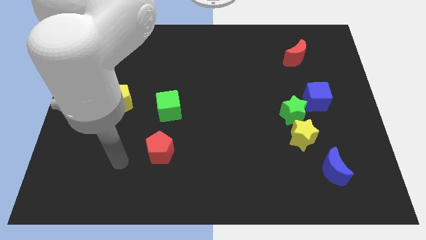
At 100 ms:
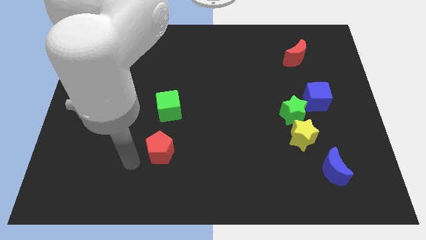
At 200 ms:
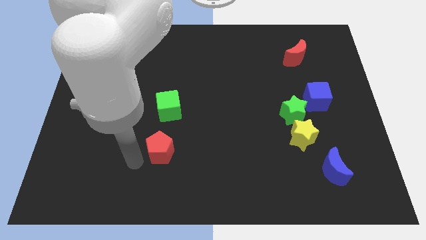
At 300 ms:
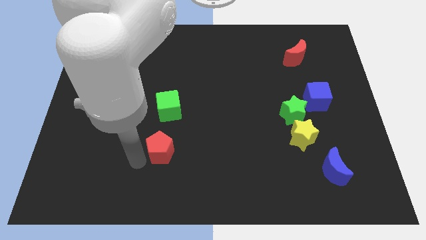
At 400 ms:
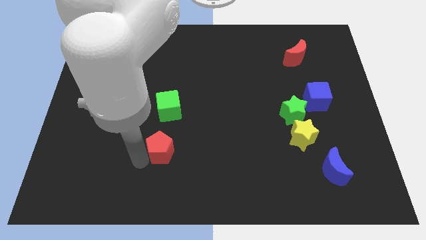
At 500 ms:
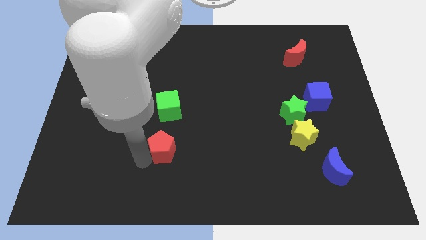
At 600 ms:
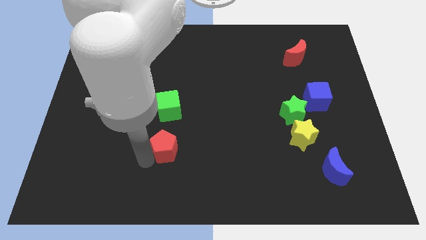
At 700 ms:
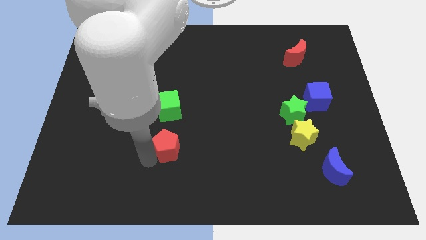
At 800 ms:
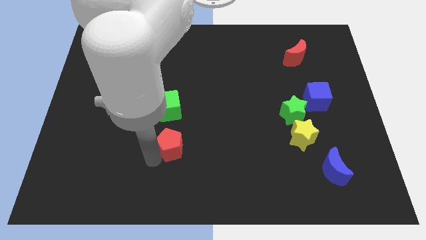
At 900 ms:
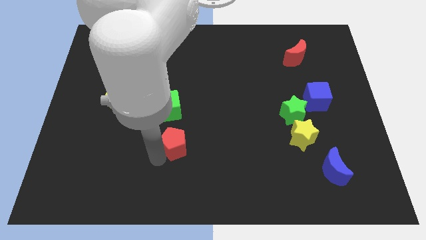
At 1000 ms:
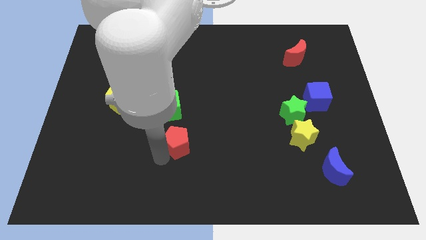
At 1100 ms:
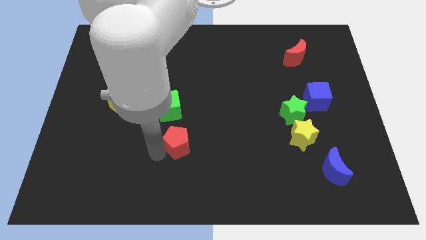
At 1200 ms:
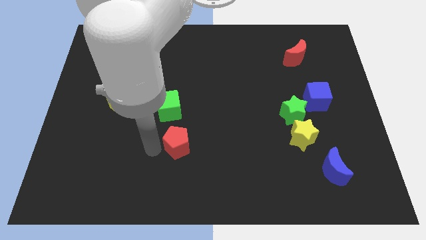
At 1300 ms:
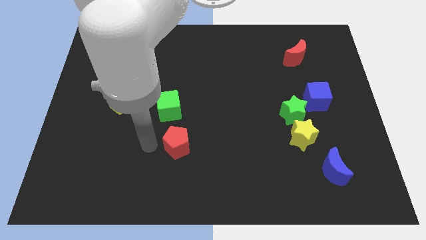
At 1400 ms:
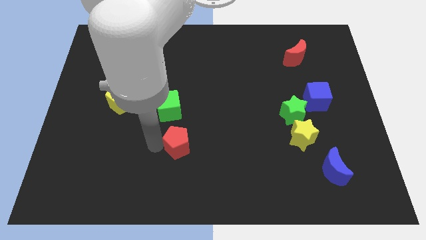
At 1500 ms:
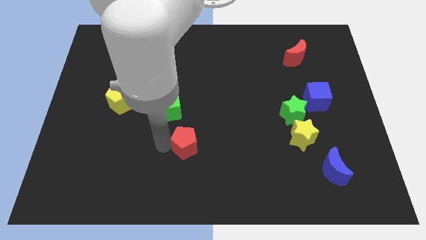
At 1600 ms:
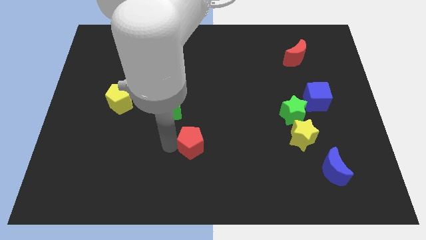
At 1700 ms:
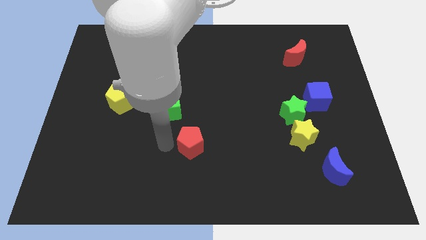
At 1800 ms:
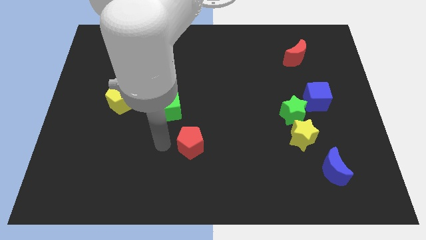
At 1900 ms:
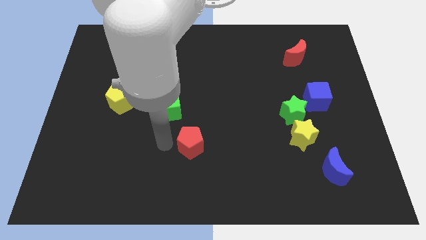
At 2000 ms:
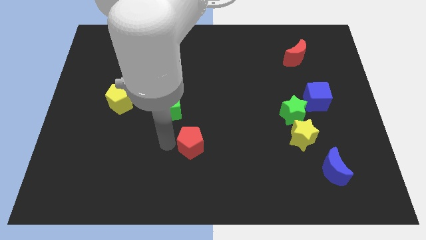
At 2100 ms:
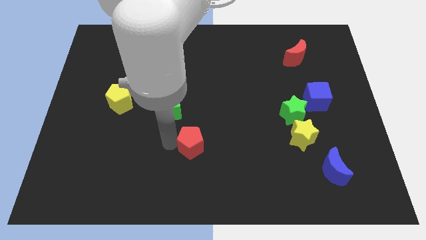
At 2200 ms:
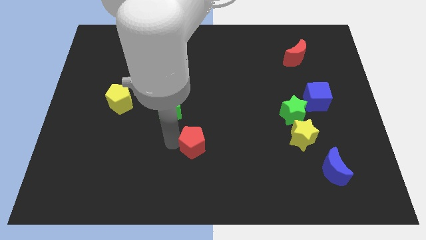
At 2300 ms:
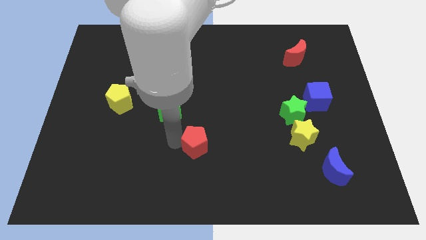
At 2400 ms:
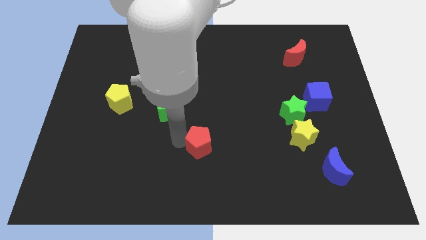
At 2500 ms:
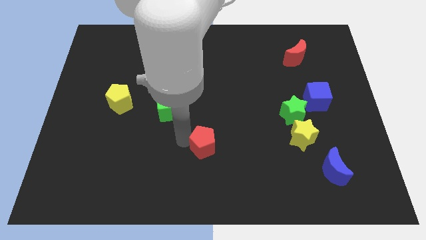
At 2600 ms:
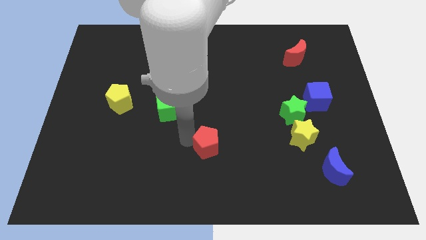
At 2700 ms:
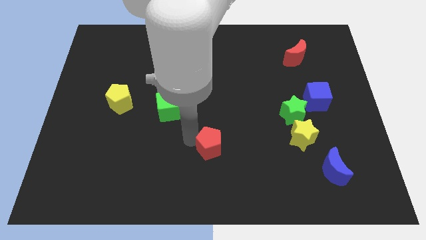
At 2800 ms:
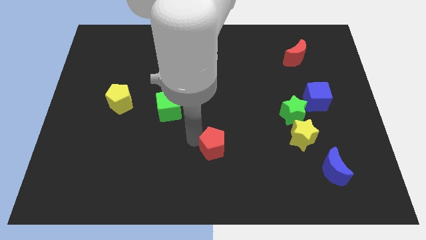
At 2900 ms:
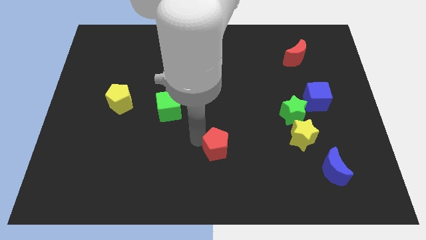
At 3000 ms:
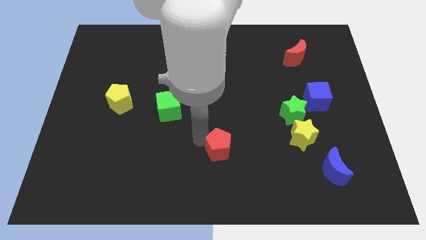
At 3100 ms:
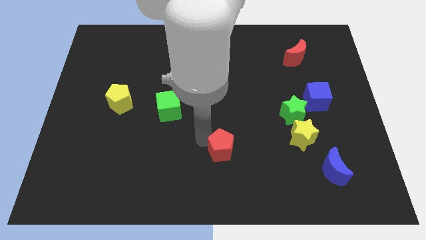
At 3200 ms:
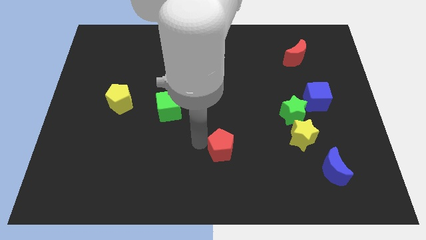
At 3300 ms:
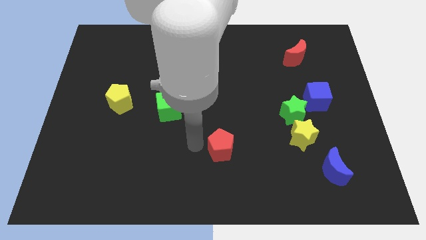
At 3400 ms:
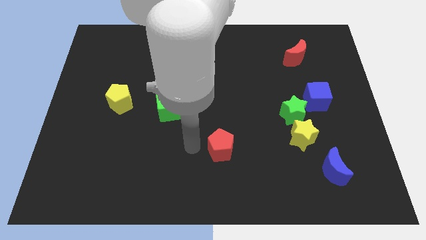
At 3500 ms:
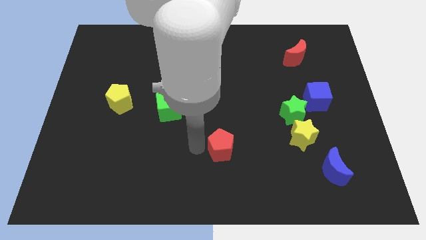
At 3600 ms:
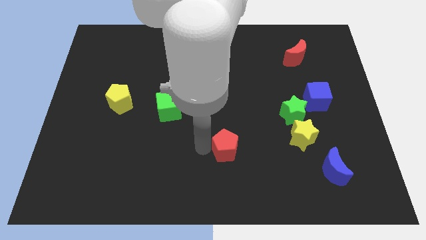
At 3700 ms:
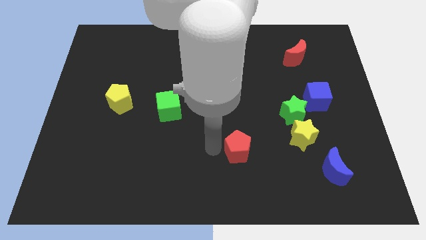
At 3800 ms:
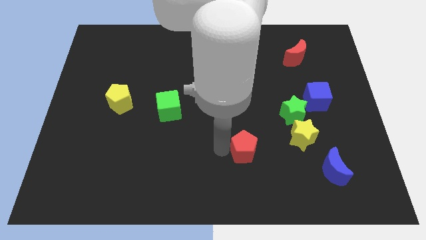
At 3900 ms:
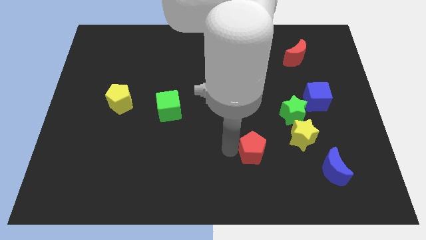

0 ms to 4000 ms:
push the red pentagon to the right

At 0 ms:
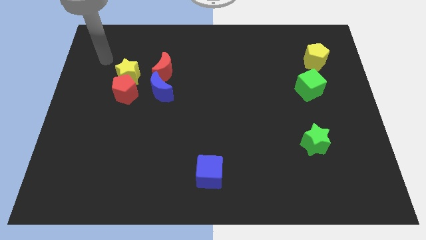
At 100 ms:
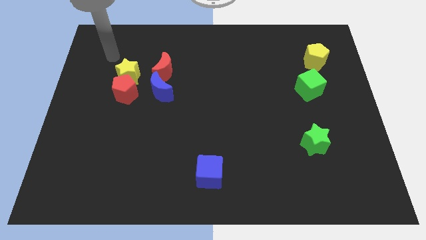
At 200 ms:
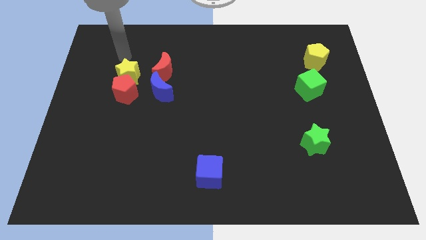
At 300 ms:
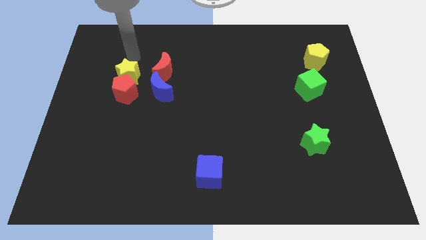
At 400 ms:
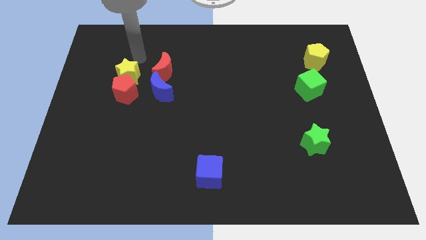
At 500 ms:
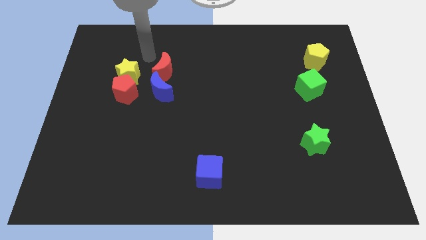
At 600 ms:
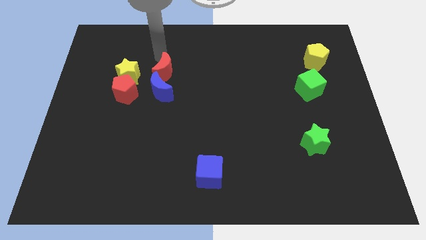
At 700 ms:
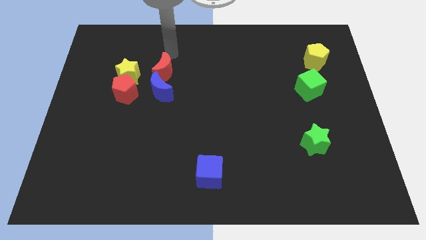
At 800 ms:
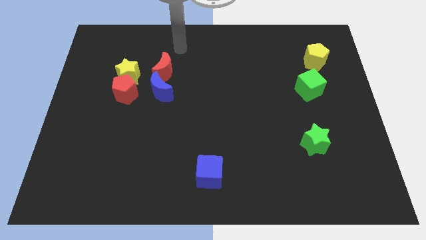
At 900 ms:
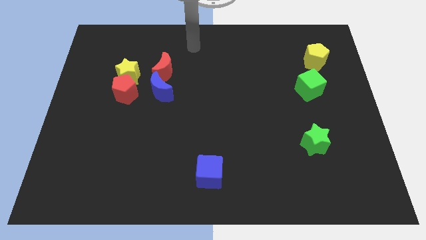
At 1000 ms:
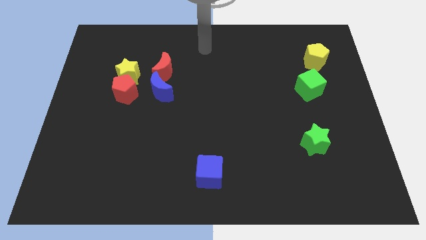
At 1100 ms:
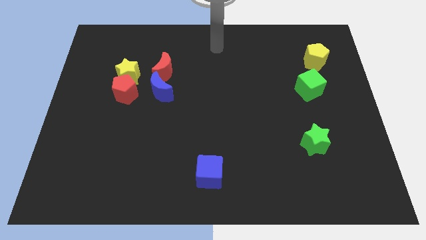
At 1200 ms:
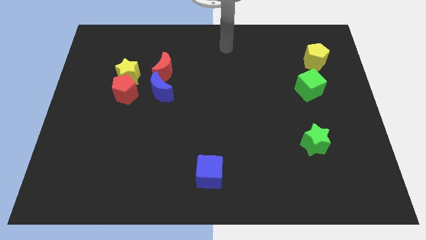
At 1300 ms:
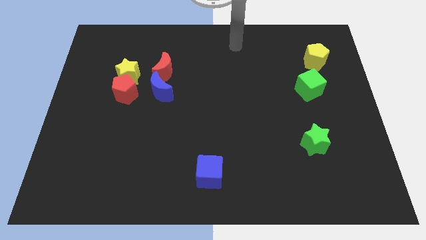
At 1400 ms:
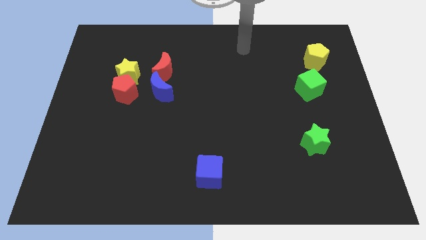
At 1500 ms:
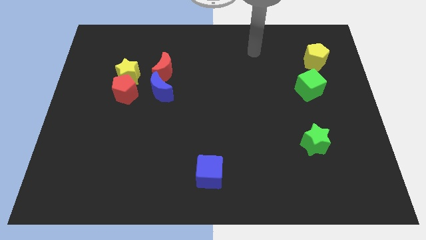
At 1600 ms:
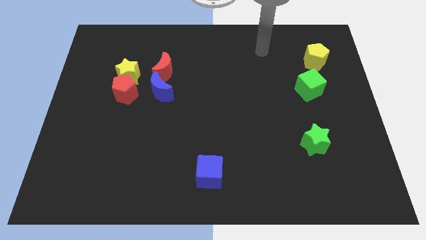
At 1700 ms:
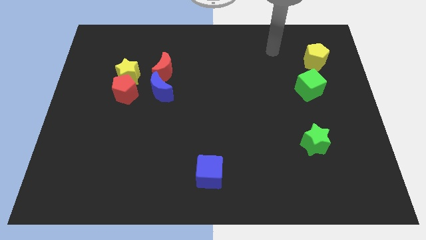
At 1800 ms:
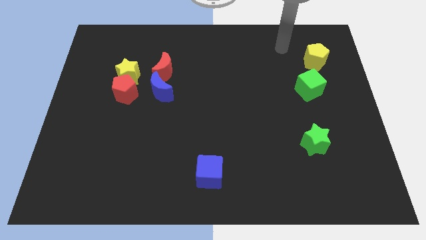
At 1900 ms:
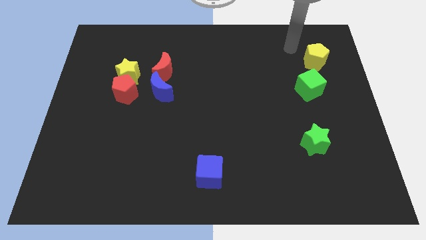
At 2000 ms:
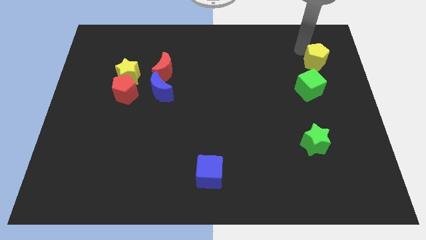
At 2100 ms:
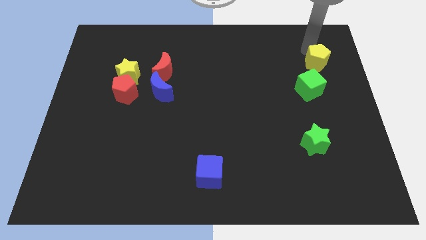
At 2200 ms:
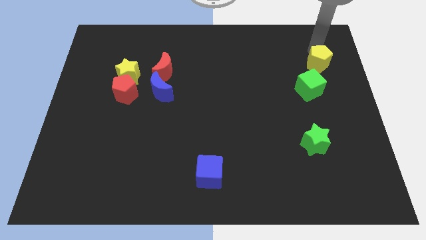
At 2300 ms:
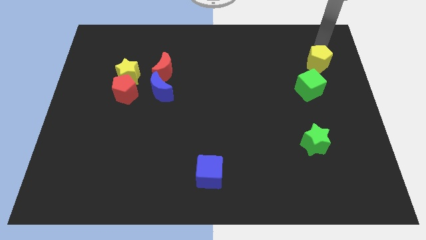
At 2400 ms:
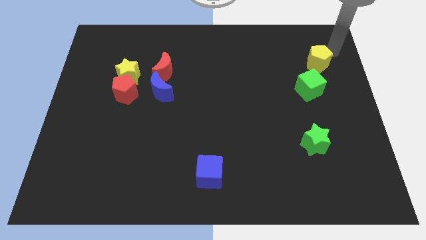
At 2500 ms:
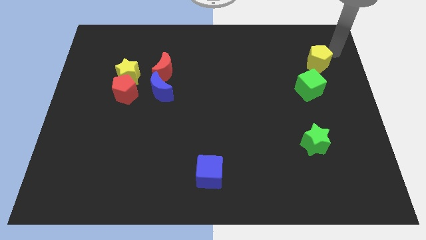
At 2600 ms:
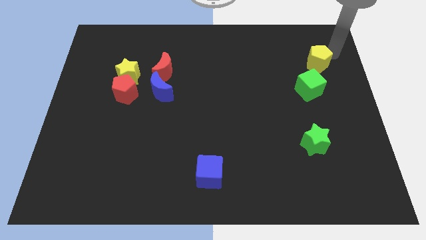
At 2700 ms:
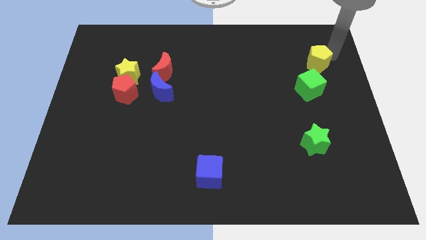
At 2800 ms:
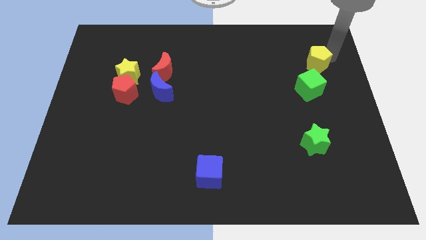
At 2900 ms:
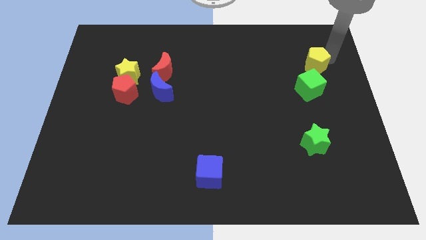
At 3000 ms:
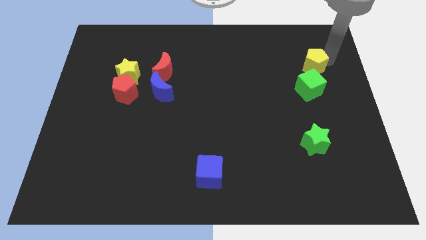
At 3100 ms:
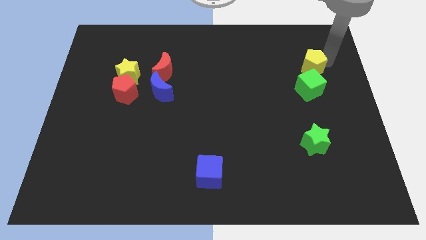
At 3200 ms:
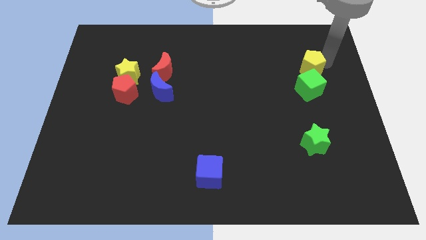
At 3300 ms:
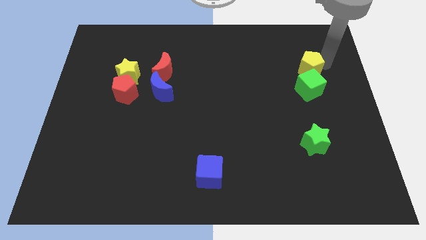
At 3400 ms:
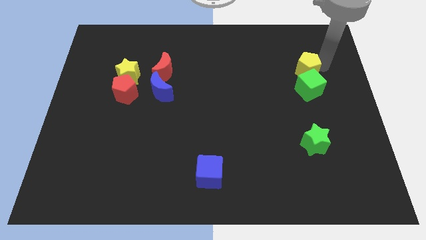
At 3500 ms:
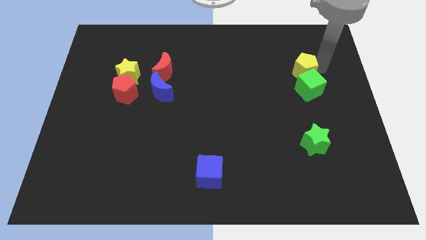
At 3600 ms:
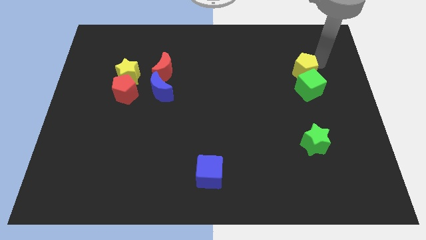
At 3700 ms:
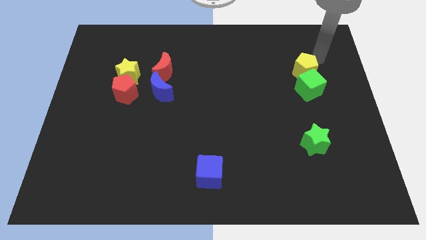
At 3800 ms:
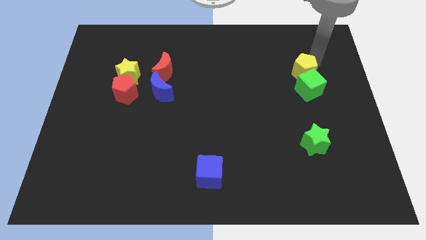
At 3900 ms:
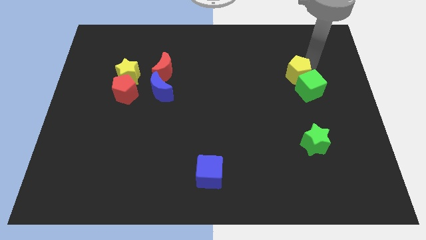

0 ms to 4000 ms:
slightly slide the yellow pentagon downwards and then left

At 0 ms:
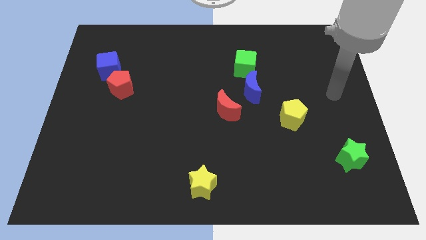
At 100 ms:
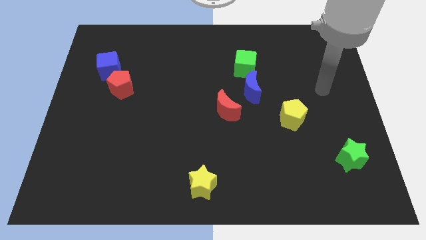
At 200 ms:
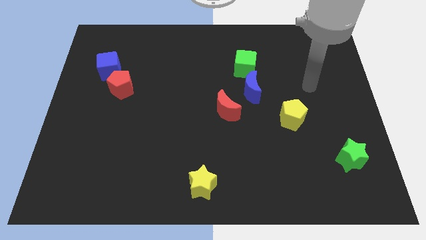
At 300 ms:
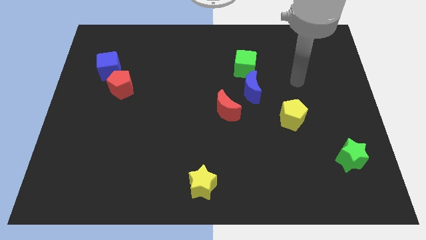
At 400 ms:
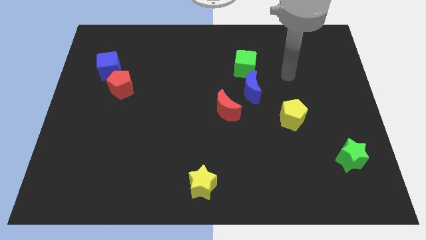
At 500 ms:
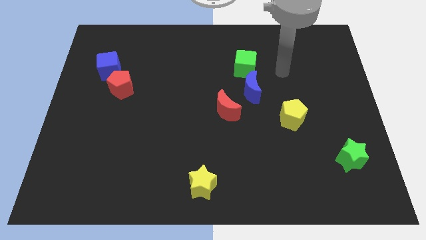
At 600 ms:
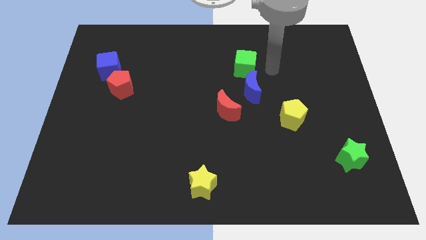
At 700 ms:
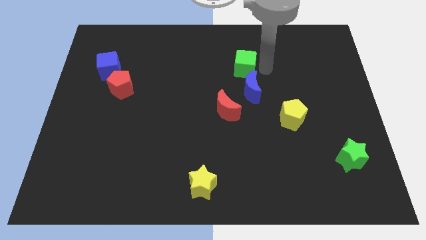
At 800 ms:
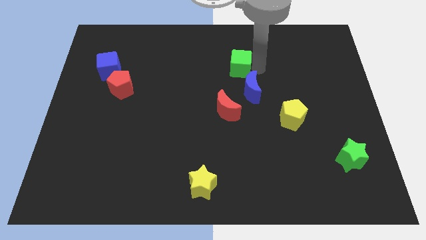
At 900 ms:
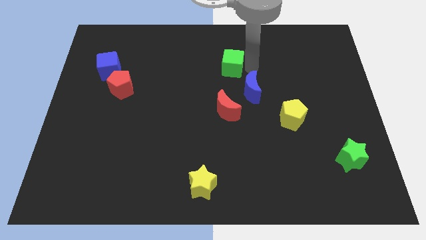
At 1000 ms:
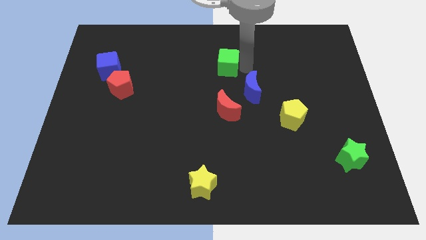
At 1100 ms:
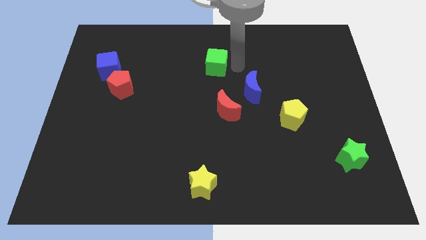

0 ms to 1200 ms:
slightly move the green cube to the left
